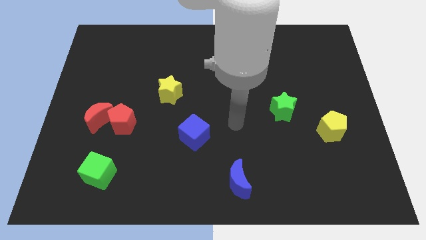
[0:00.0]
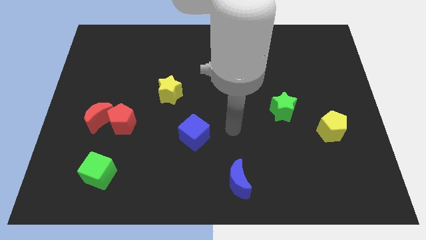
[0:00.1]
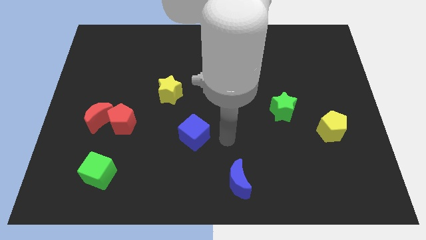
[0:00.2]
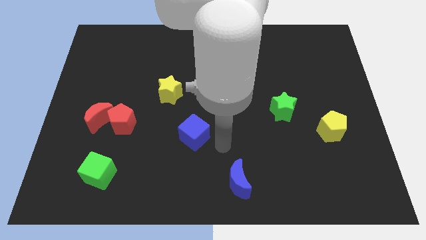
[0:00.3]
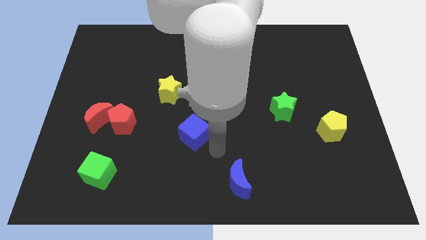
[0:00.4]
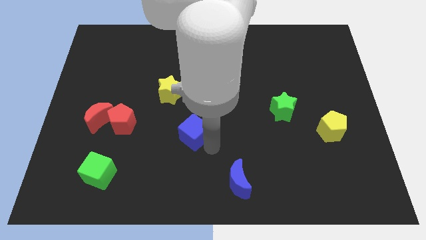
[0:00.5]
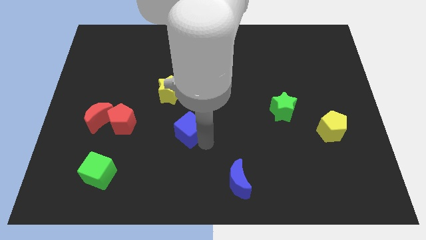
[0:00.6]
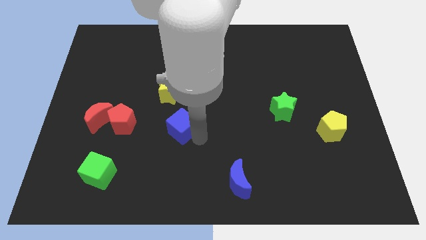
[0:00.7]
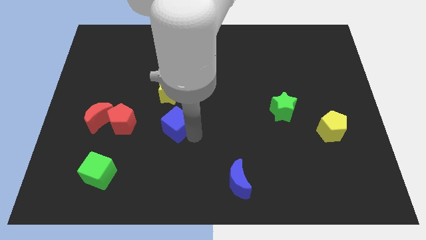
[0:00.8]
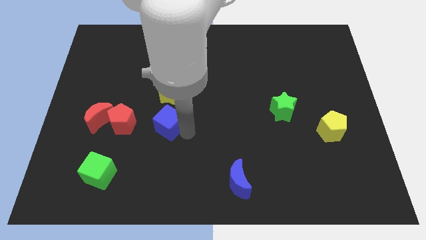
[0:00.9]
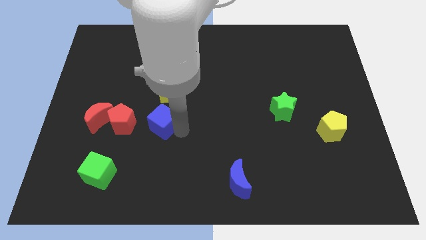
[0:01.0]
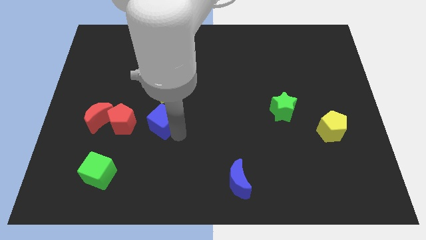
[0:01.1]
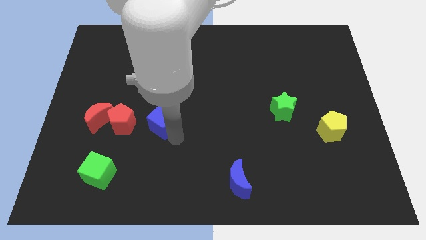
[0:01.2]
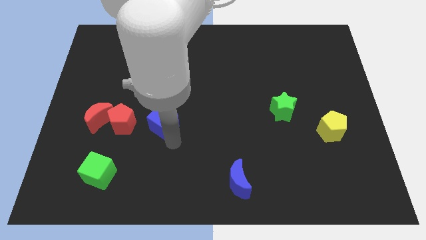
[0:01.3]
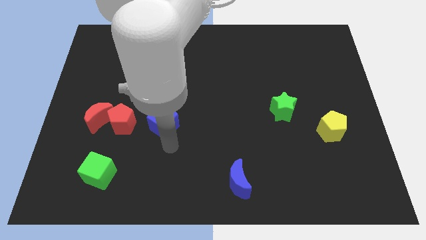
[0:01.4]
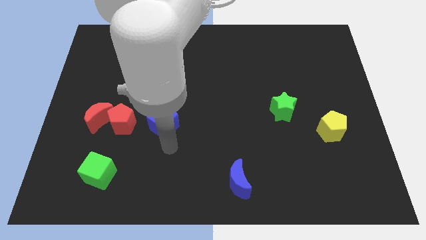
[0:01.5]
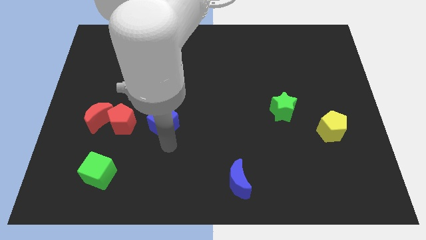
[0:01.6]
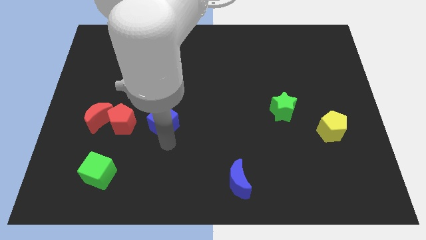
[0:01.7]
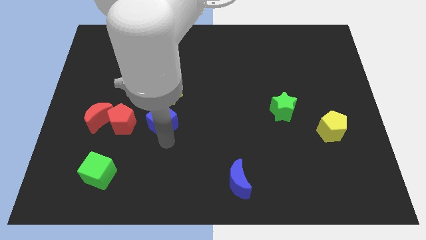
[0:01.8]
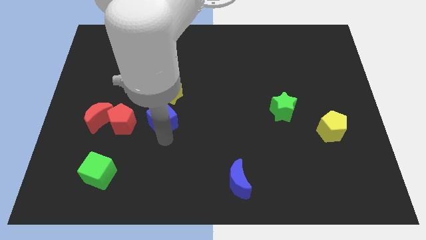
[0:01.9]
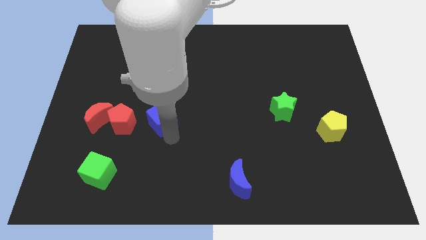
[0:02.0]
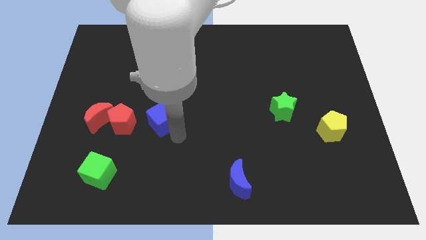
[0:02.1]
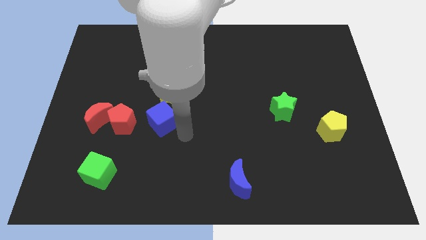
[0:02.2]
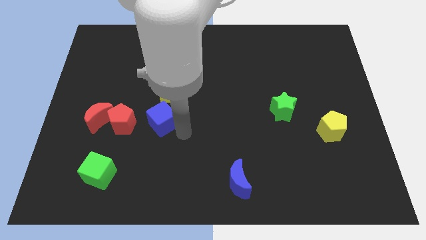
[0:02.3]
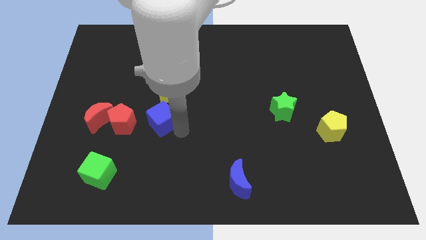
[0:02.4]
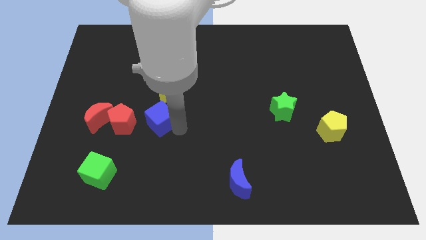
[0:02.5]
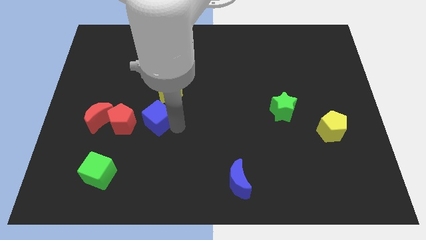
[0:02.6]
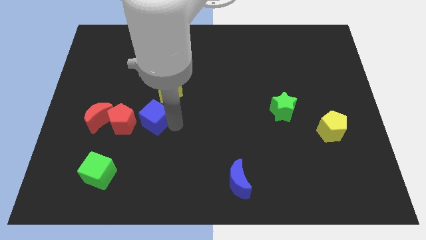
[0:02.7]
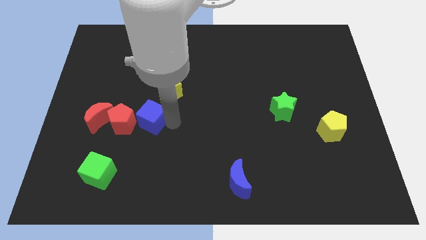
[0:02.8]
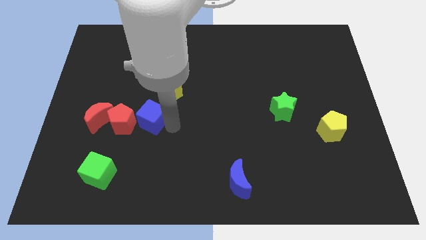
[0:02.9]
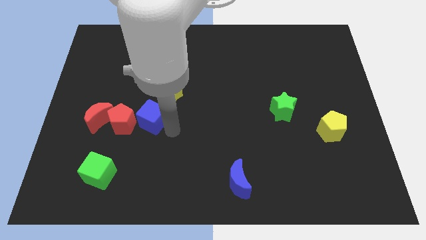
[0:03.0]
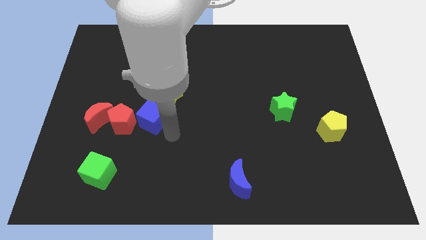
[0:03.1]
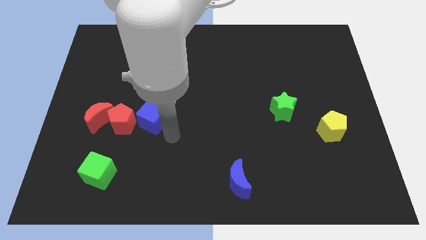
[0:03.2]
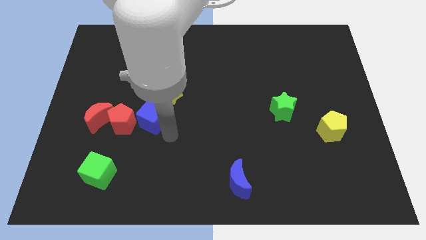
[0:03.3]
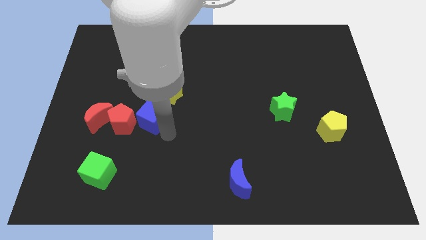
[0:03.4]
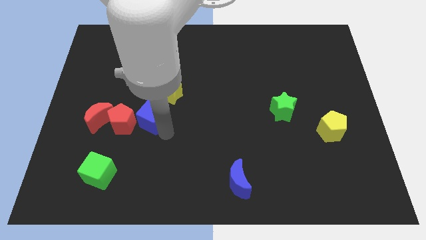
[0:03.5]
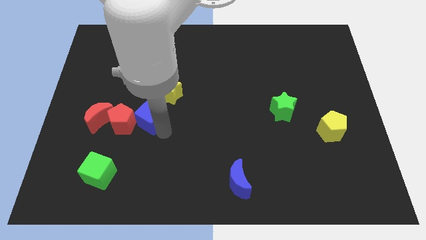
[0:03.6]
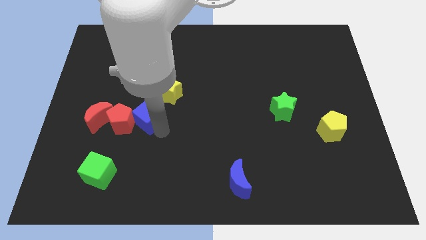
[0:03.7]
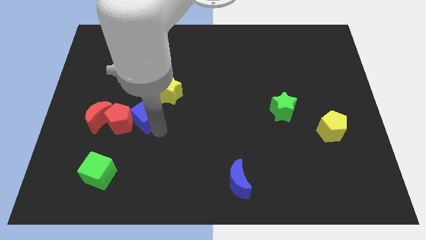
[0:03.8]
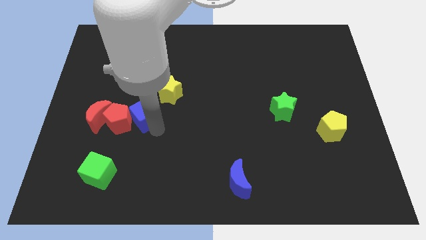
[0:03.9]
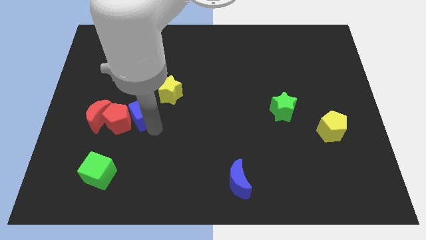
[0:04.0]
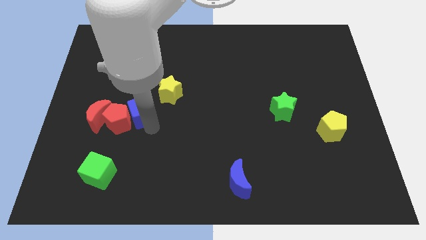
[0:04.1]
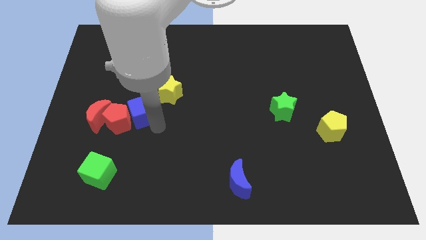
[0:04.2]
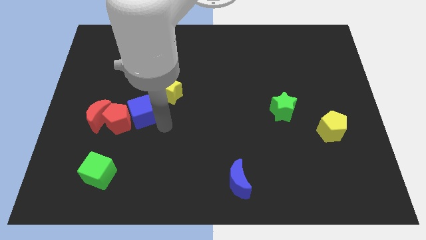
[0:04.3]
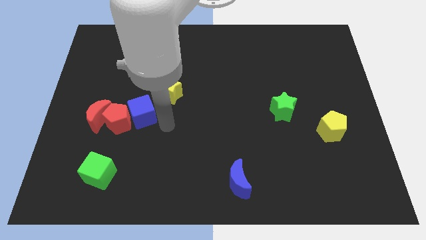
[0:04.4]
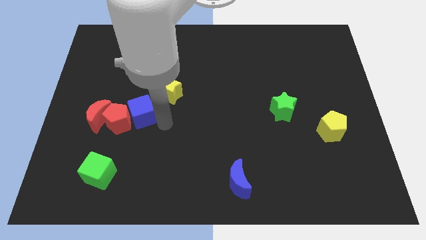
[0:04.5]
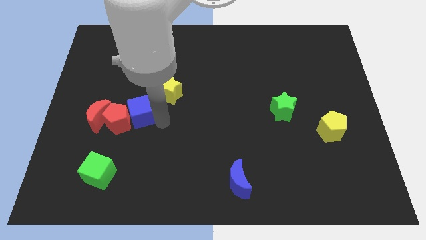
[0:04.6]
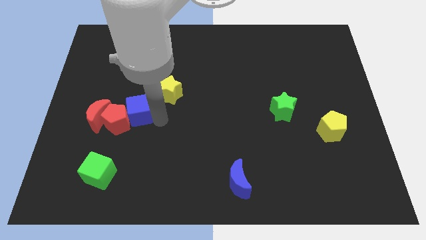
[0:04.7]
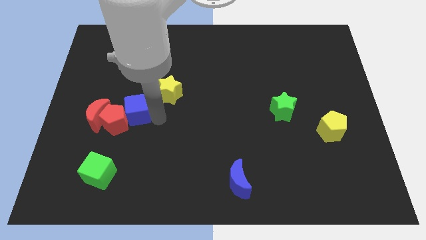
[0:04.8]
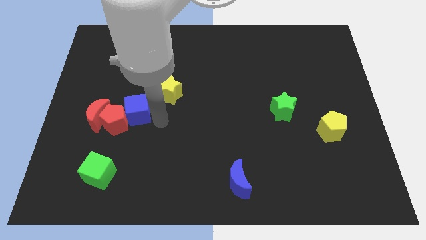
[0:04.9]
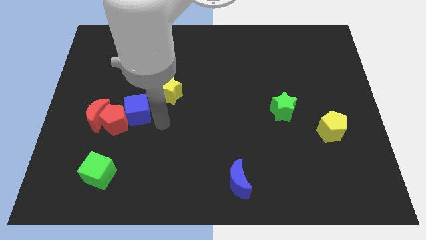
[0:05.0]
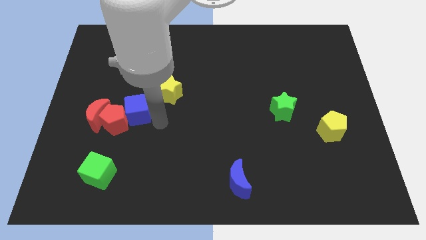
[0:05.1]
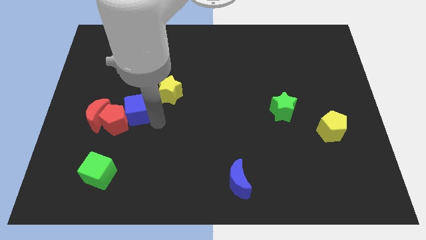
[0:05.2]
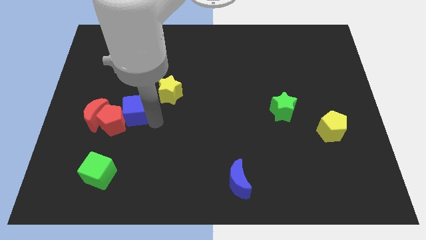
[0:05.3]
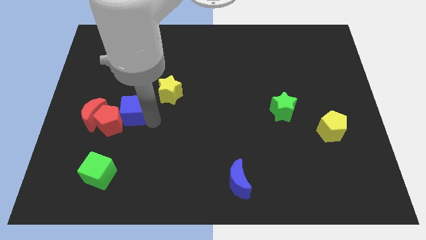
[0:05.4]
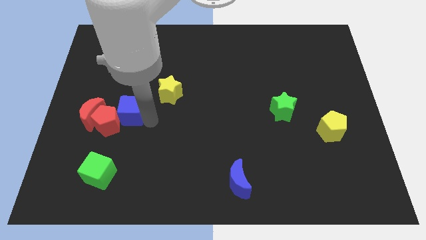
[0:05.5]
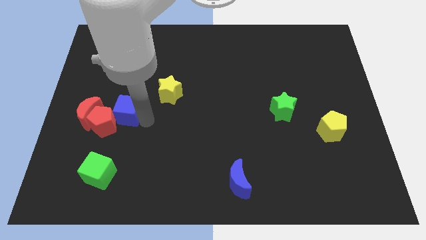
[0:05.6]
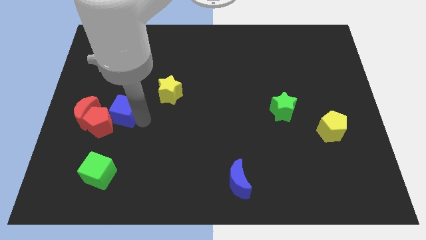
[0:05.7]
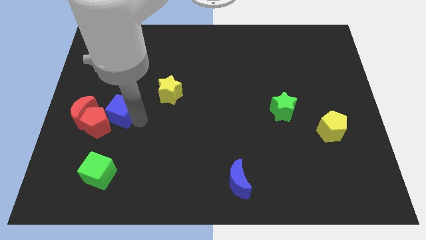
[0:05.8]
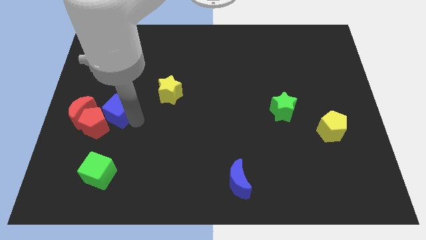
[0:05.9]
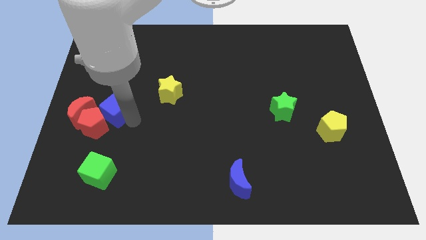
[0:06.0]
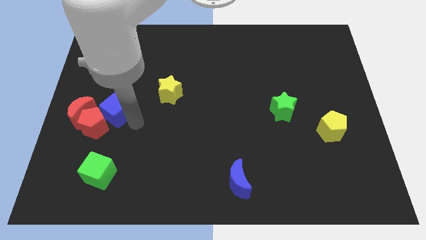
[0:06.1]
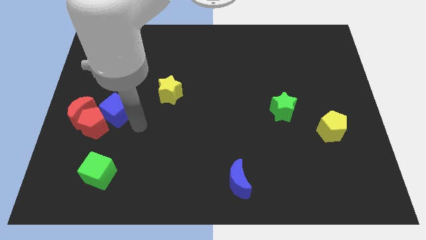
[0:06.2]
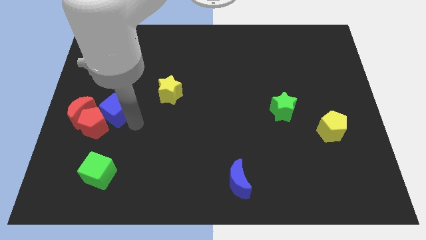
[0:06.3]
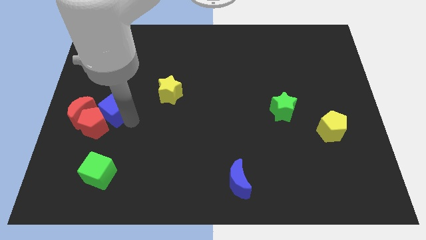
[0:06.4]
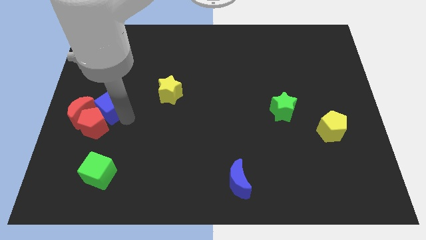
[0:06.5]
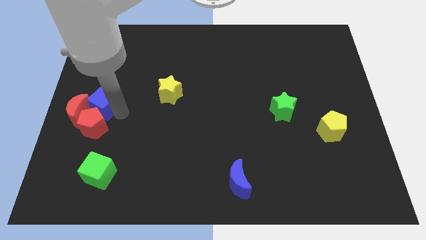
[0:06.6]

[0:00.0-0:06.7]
slide the blue cube to the left side of the board
